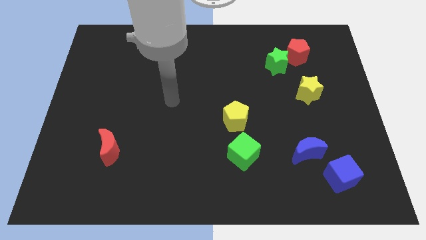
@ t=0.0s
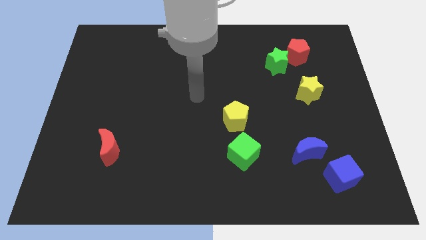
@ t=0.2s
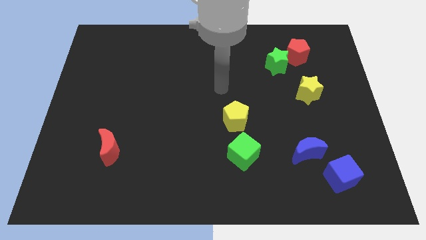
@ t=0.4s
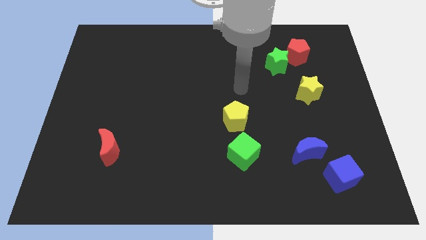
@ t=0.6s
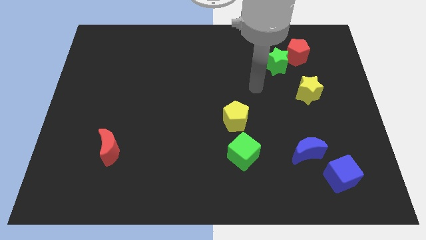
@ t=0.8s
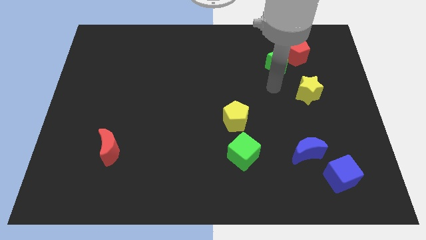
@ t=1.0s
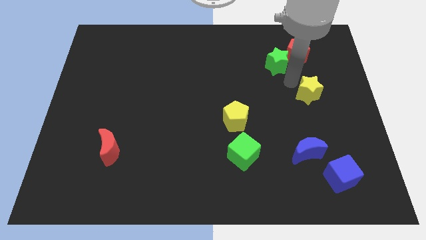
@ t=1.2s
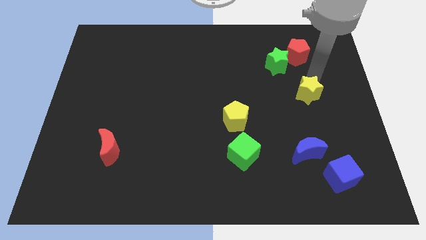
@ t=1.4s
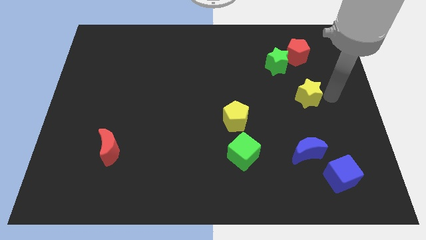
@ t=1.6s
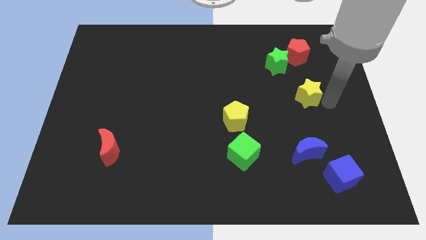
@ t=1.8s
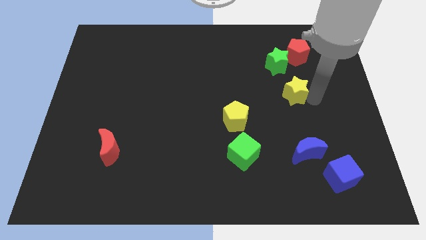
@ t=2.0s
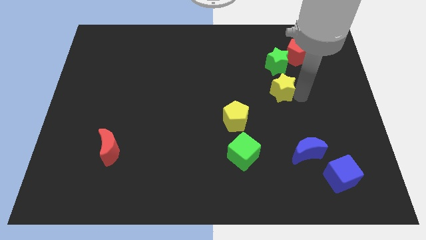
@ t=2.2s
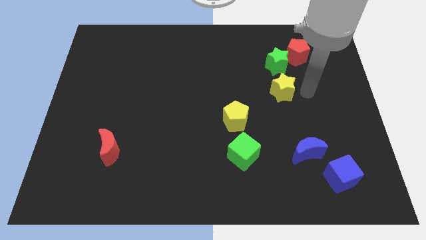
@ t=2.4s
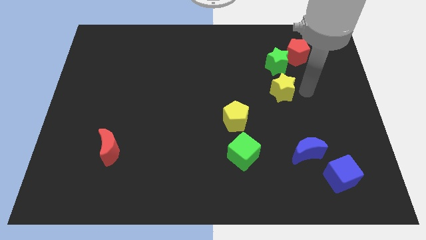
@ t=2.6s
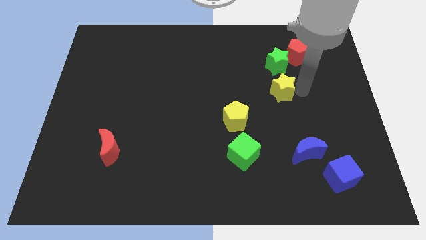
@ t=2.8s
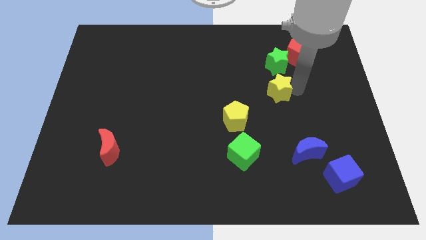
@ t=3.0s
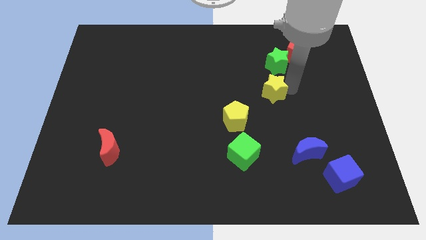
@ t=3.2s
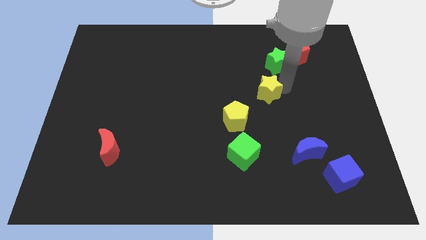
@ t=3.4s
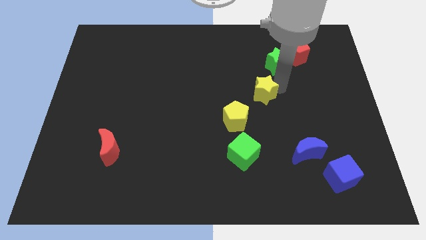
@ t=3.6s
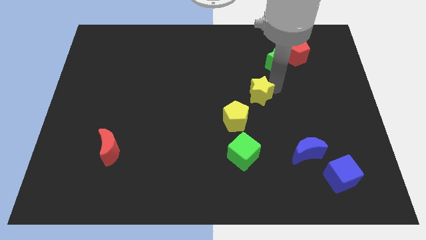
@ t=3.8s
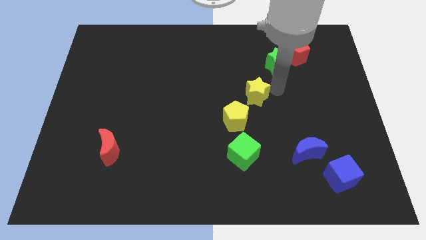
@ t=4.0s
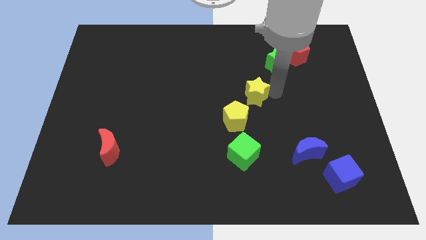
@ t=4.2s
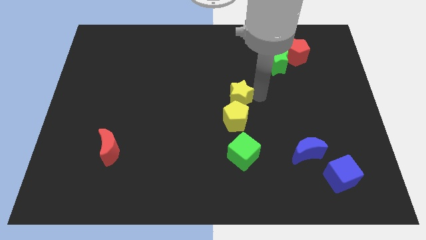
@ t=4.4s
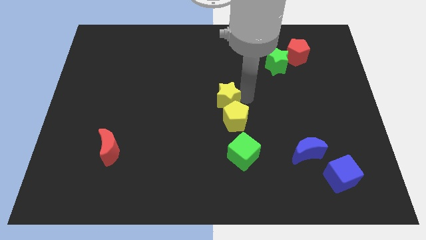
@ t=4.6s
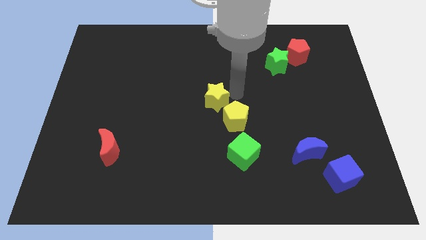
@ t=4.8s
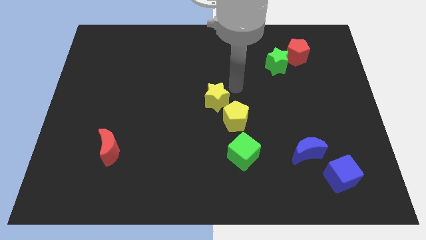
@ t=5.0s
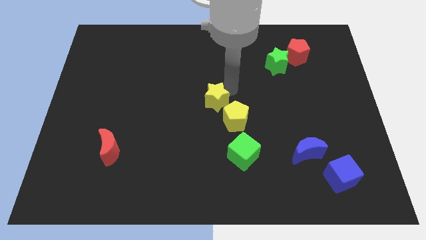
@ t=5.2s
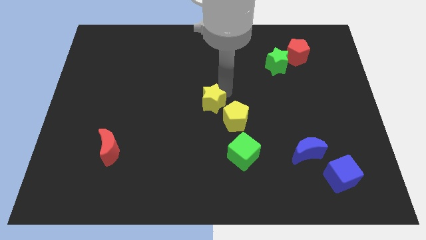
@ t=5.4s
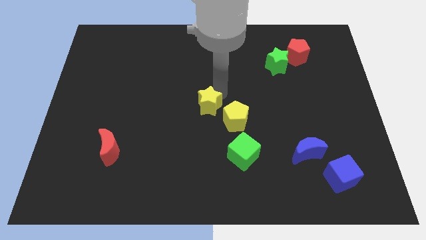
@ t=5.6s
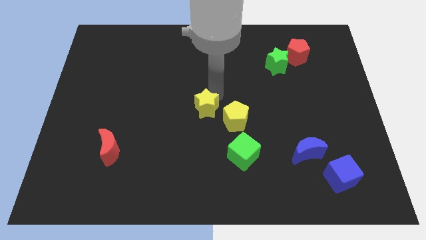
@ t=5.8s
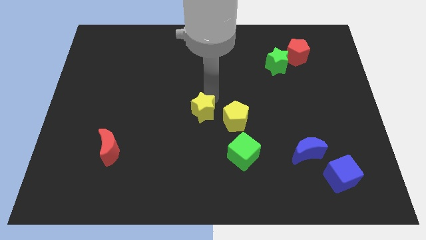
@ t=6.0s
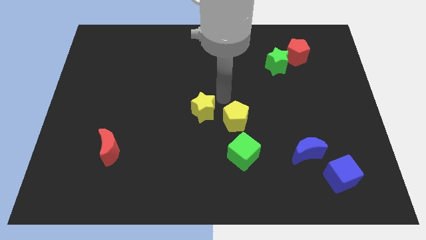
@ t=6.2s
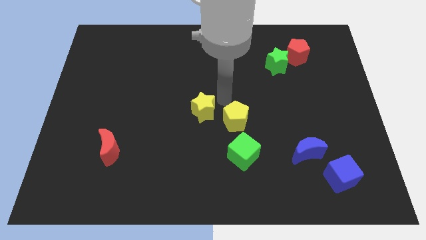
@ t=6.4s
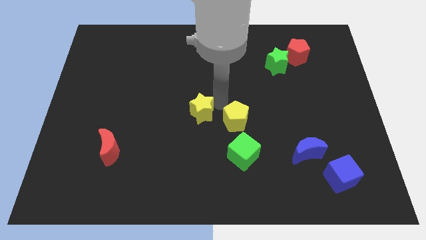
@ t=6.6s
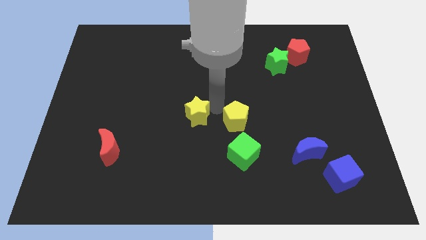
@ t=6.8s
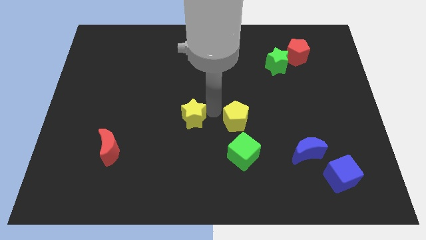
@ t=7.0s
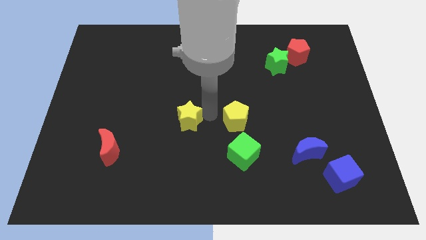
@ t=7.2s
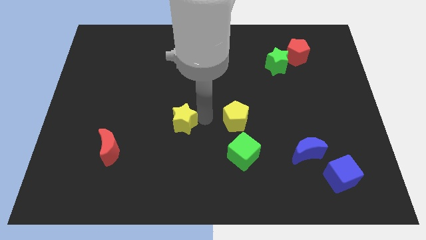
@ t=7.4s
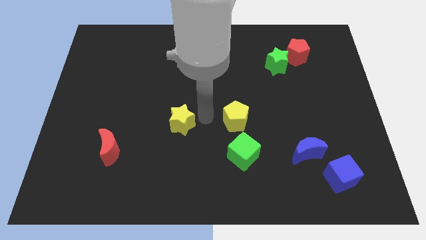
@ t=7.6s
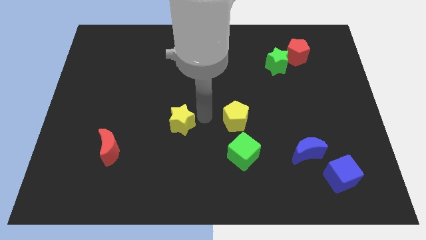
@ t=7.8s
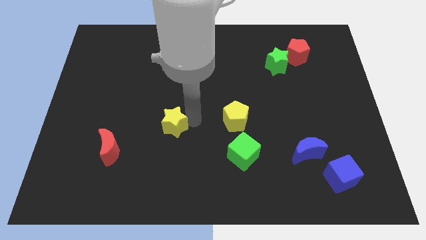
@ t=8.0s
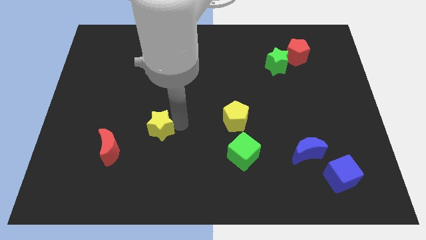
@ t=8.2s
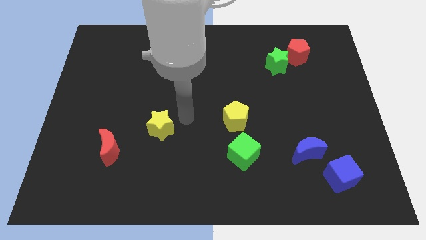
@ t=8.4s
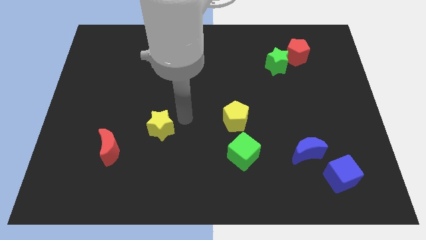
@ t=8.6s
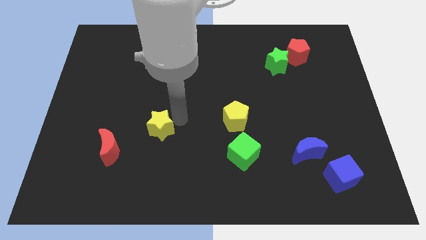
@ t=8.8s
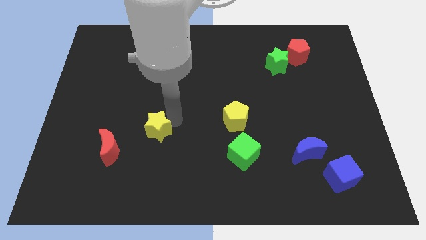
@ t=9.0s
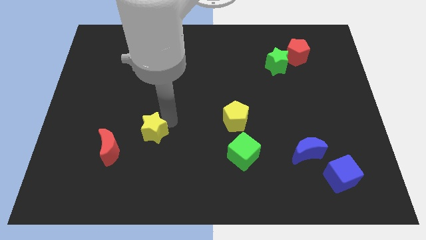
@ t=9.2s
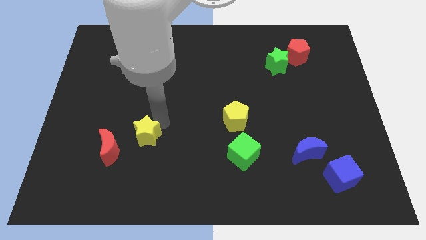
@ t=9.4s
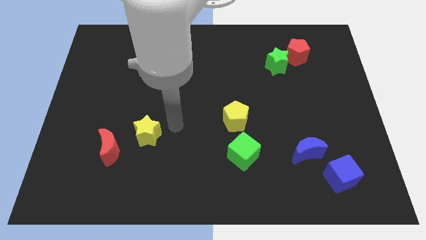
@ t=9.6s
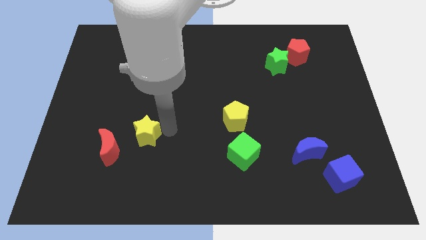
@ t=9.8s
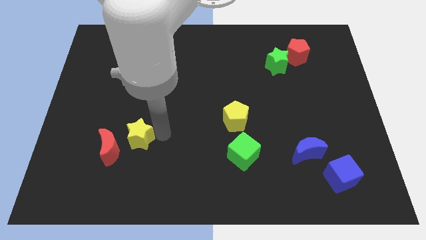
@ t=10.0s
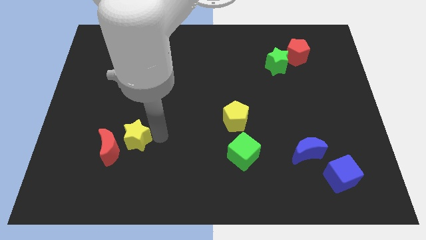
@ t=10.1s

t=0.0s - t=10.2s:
push the yellow star close to the red moon

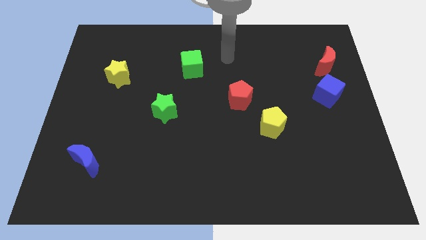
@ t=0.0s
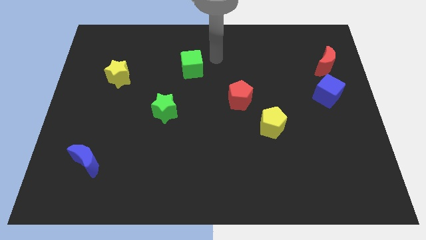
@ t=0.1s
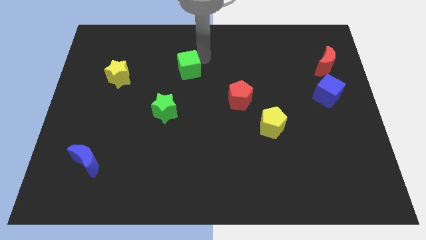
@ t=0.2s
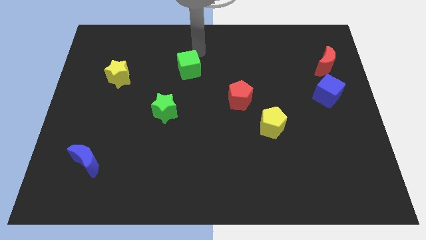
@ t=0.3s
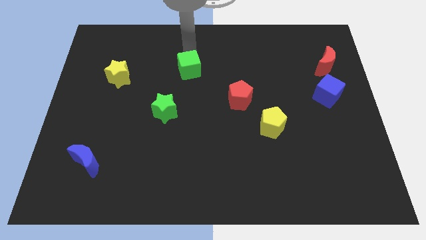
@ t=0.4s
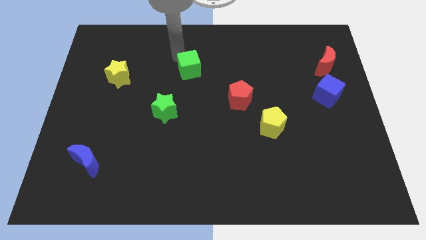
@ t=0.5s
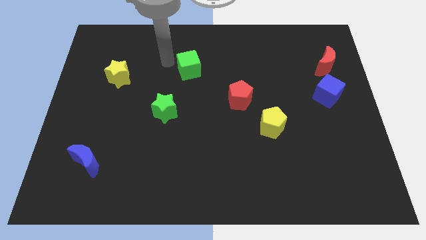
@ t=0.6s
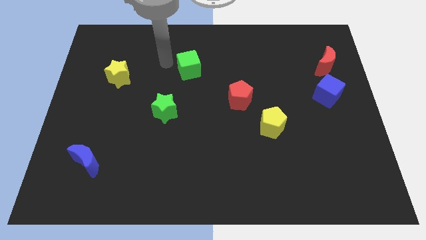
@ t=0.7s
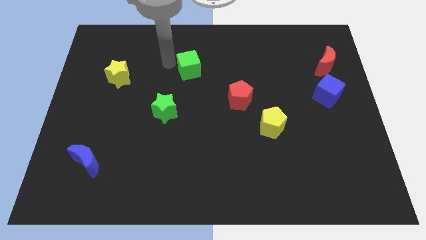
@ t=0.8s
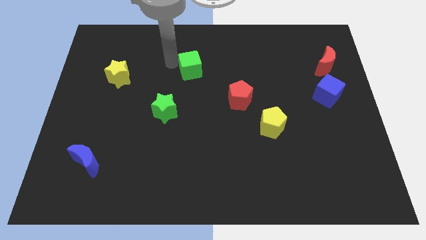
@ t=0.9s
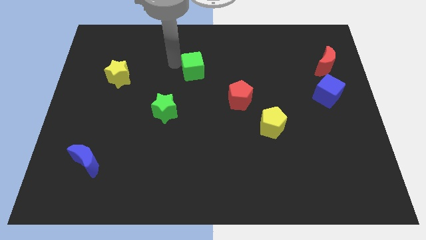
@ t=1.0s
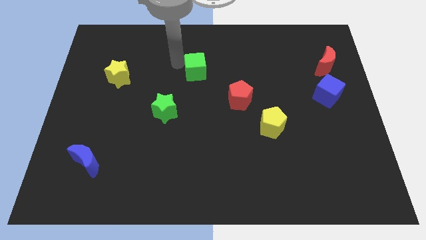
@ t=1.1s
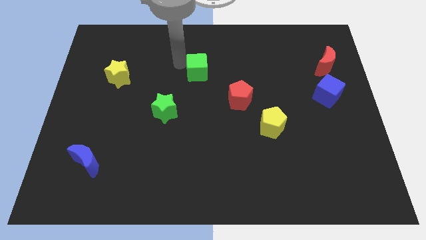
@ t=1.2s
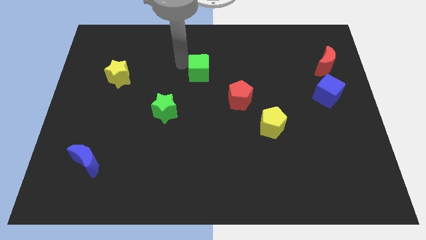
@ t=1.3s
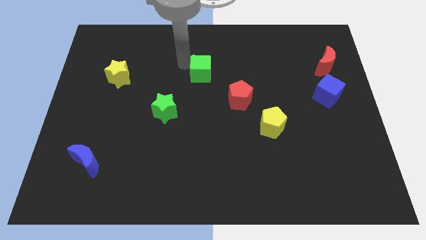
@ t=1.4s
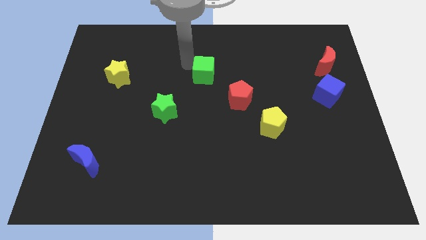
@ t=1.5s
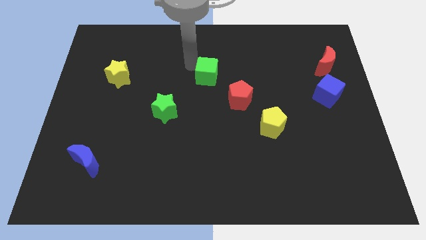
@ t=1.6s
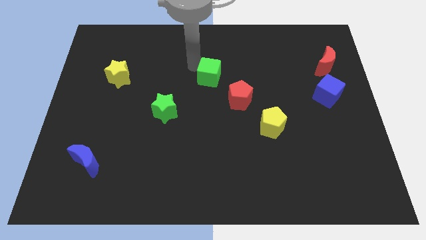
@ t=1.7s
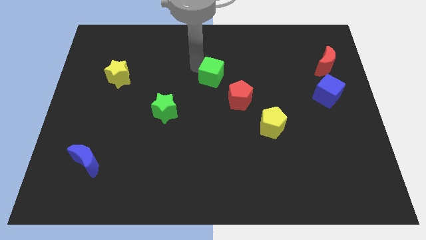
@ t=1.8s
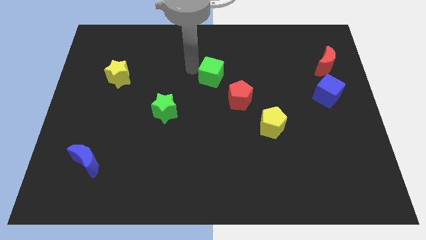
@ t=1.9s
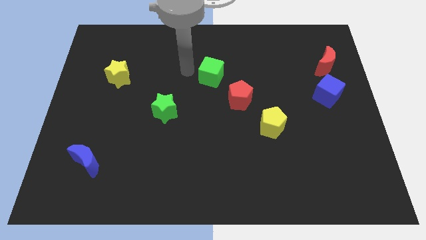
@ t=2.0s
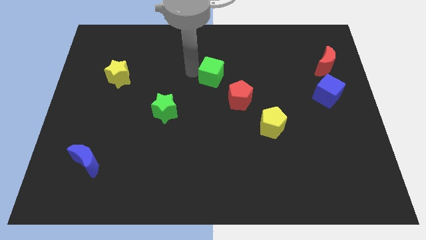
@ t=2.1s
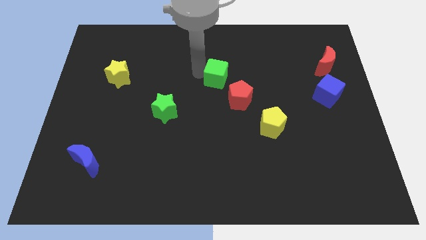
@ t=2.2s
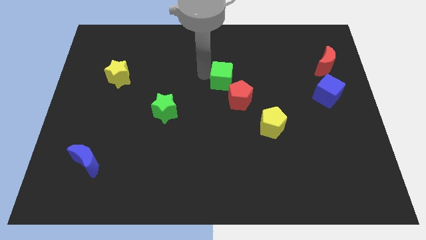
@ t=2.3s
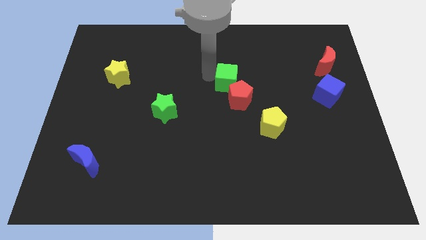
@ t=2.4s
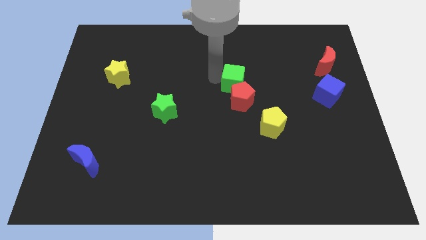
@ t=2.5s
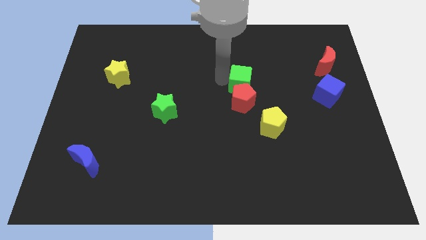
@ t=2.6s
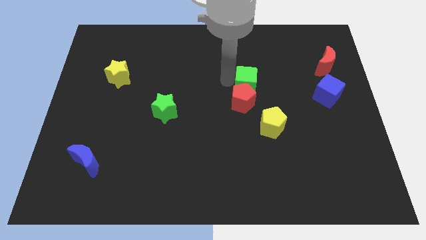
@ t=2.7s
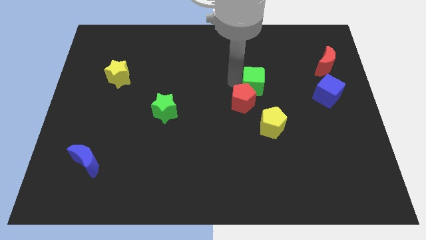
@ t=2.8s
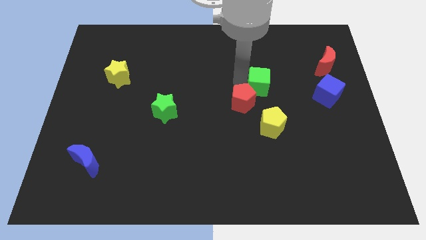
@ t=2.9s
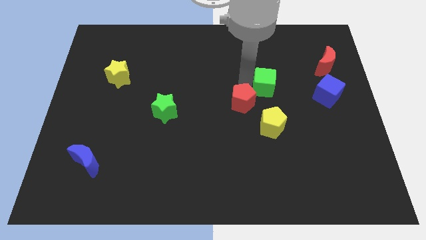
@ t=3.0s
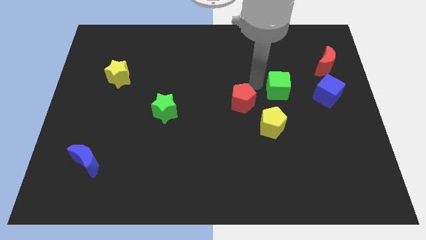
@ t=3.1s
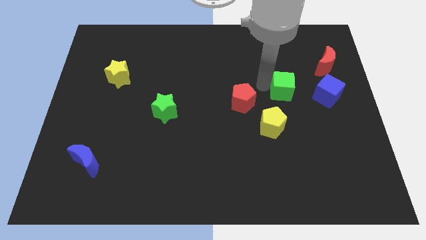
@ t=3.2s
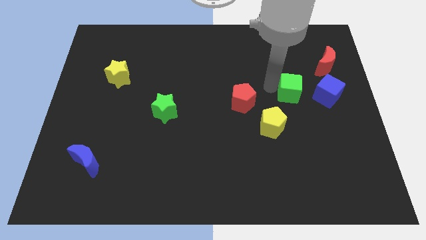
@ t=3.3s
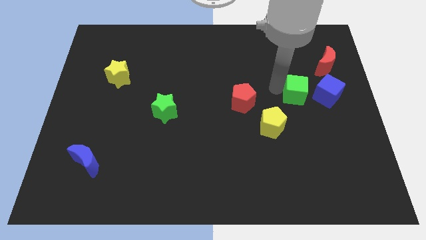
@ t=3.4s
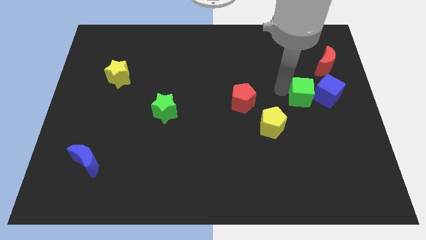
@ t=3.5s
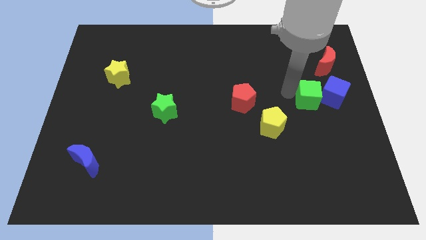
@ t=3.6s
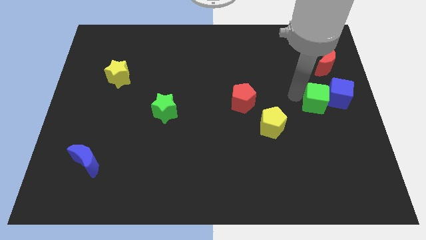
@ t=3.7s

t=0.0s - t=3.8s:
slide the green cube close to the blue cube
